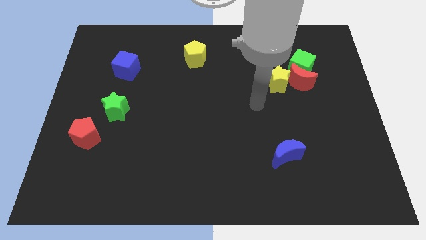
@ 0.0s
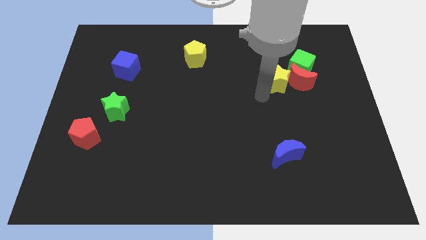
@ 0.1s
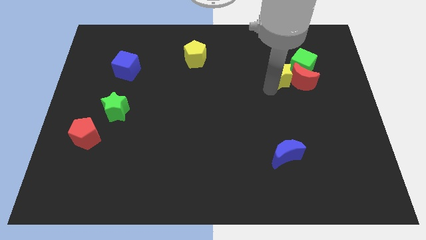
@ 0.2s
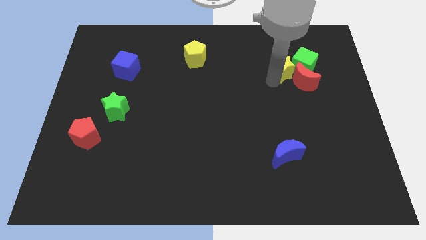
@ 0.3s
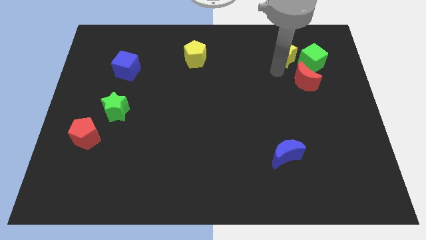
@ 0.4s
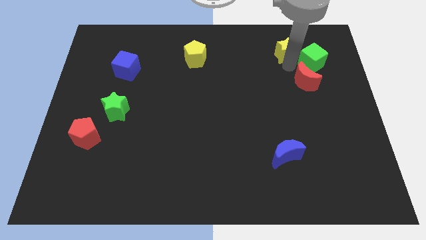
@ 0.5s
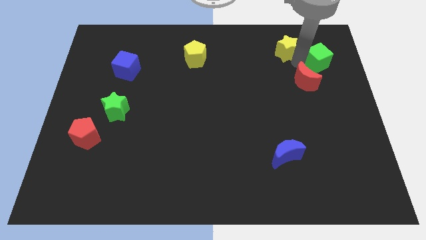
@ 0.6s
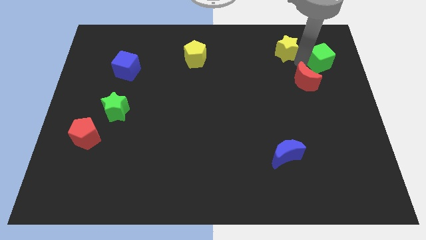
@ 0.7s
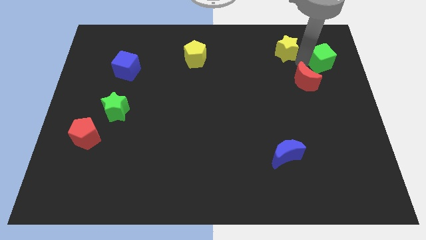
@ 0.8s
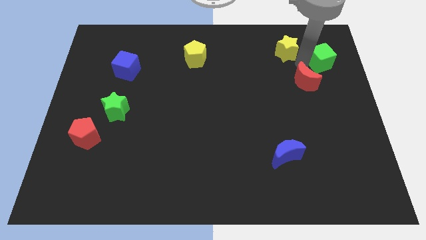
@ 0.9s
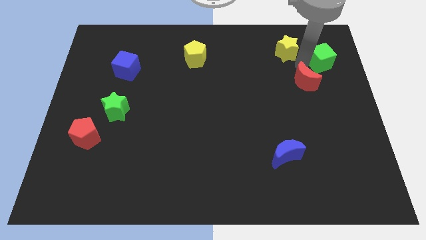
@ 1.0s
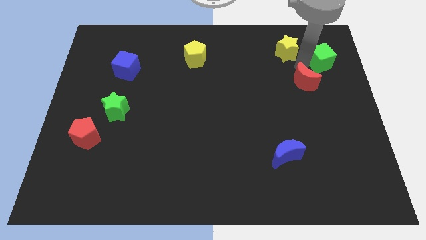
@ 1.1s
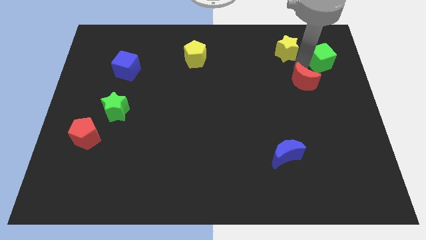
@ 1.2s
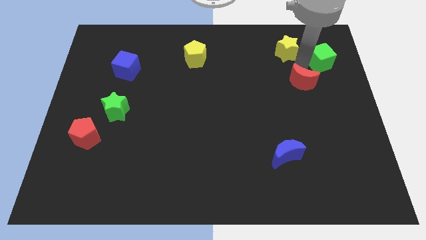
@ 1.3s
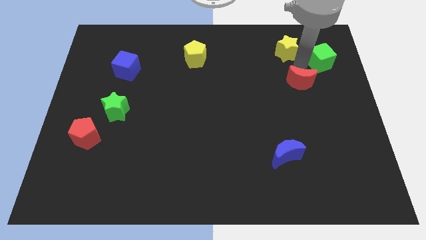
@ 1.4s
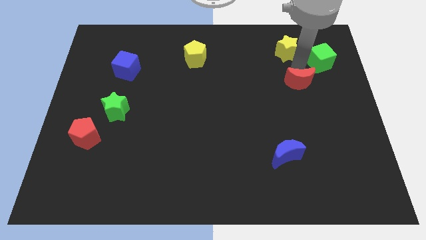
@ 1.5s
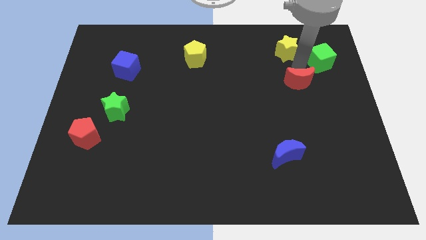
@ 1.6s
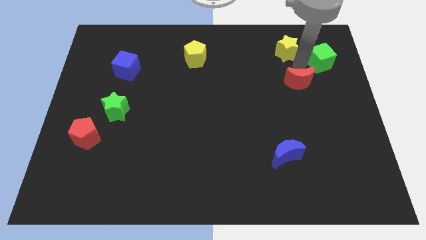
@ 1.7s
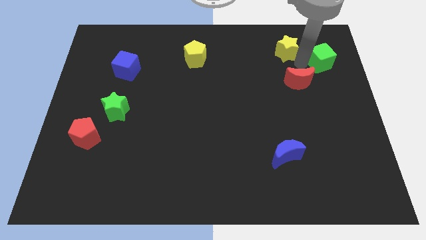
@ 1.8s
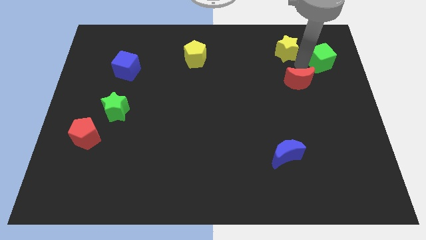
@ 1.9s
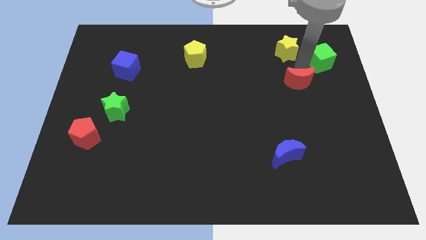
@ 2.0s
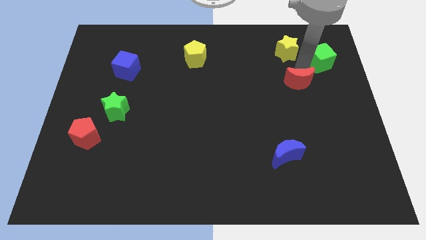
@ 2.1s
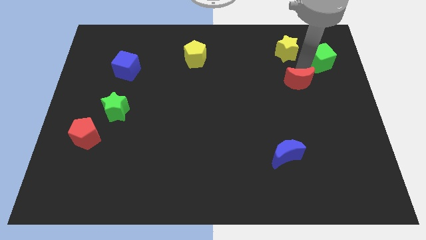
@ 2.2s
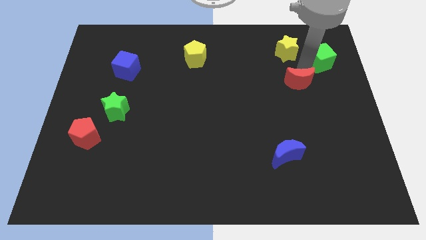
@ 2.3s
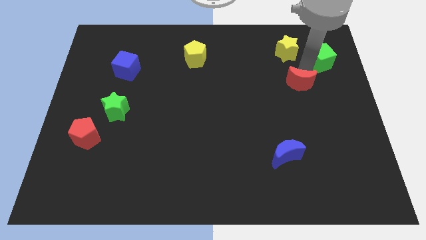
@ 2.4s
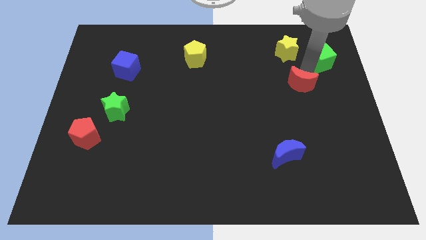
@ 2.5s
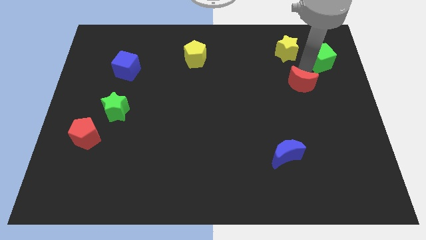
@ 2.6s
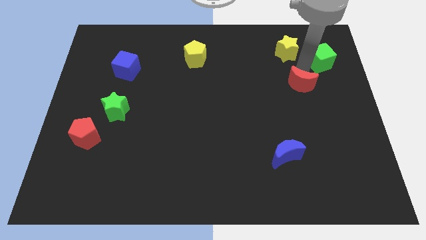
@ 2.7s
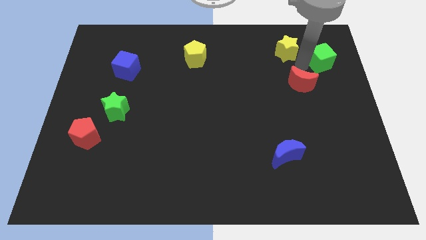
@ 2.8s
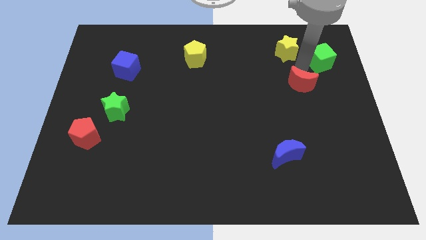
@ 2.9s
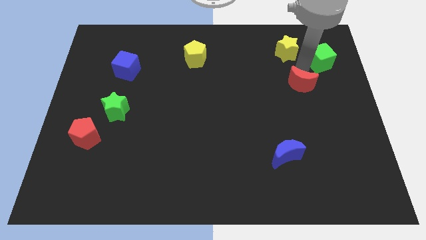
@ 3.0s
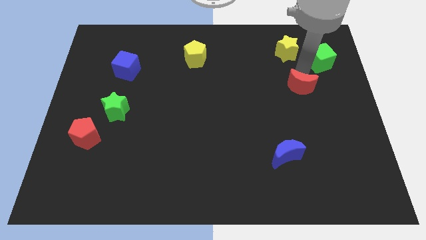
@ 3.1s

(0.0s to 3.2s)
pull the red moon apart from the green cube and yellow star

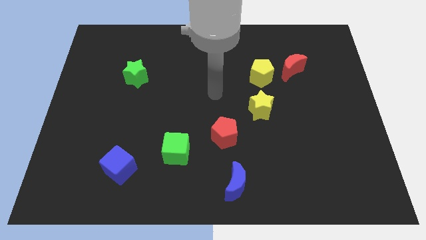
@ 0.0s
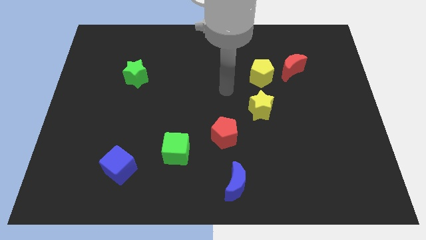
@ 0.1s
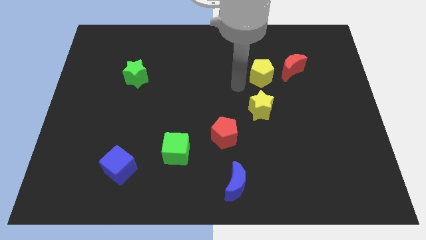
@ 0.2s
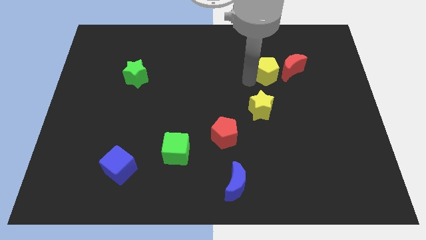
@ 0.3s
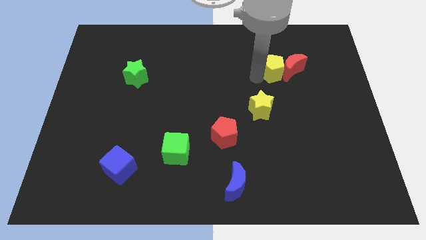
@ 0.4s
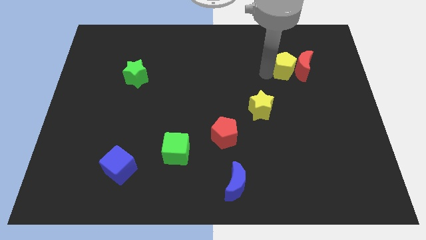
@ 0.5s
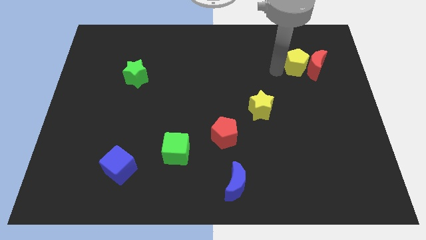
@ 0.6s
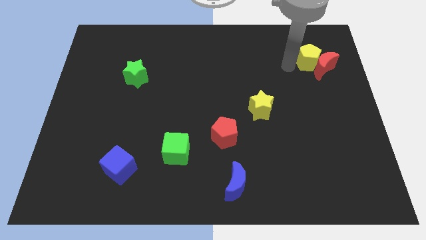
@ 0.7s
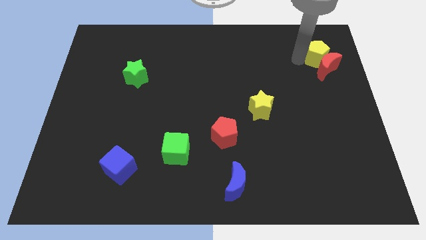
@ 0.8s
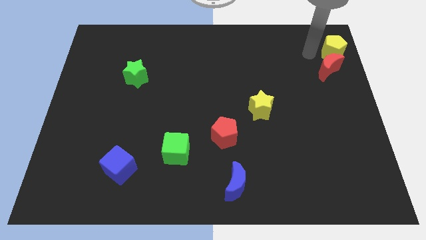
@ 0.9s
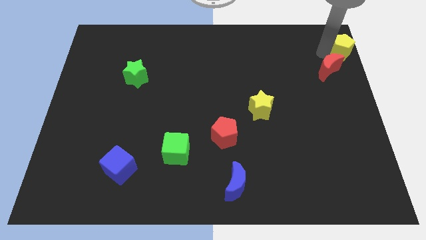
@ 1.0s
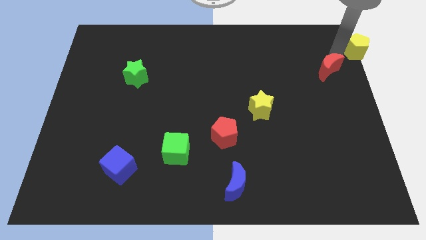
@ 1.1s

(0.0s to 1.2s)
separate the red moon from the yellow pentagon

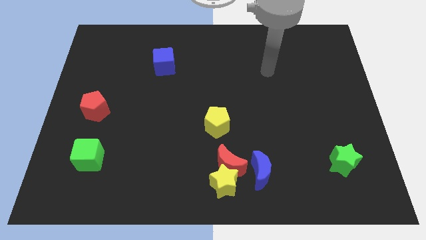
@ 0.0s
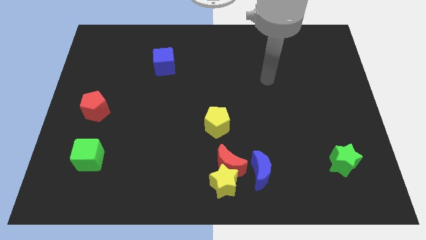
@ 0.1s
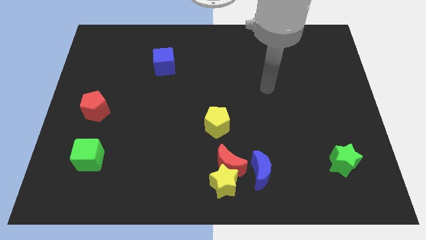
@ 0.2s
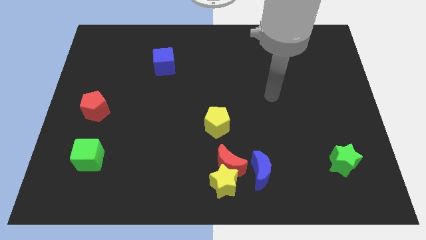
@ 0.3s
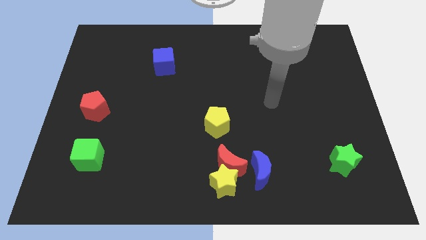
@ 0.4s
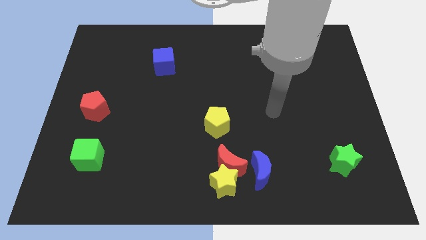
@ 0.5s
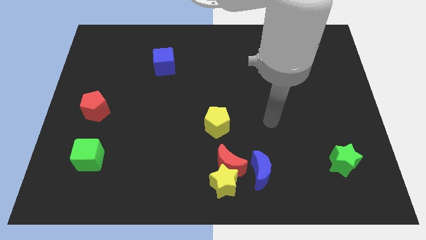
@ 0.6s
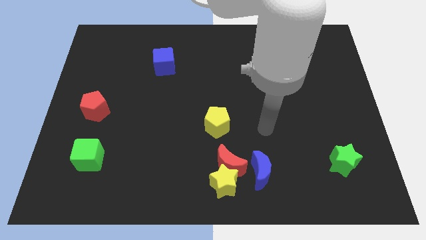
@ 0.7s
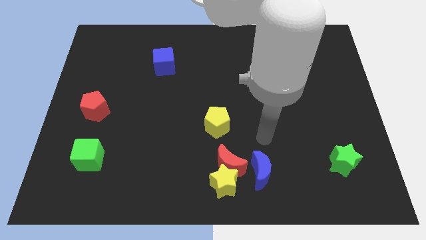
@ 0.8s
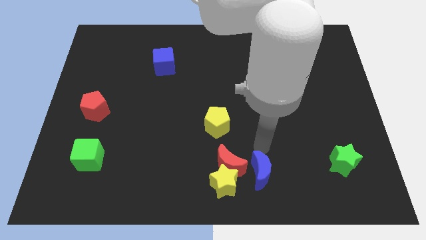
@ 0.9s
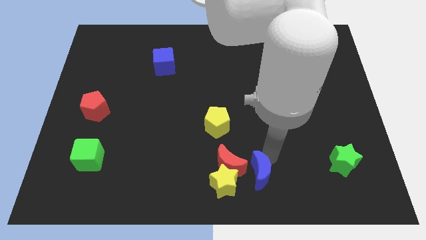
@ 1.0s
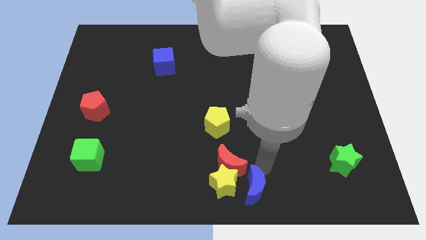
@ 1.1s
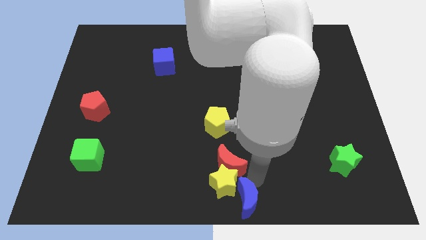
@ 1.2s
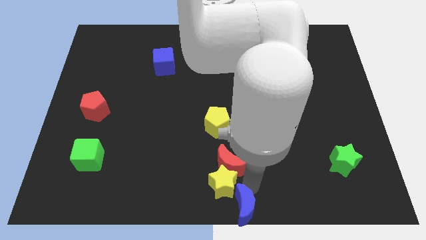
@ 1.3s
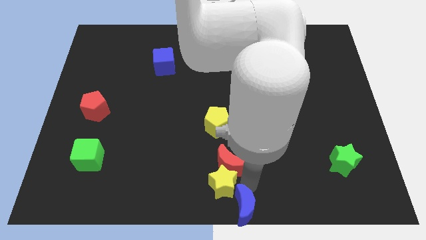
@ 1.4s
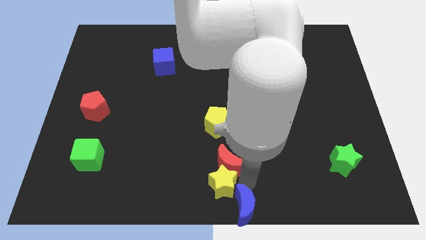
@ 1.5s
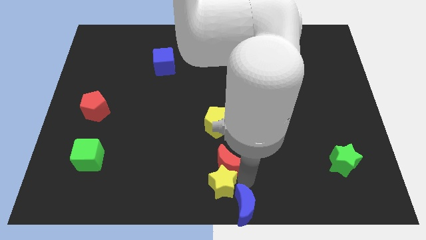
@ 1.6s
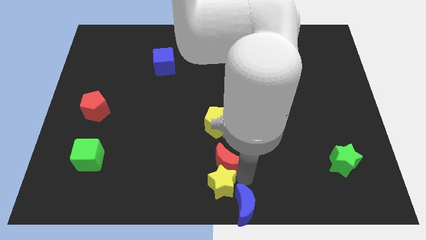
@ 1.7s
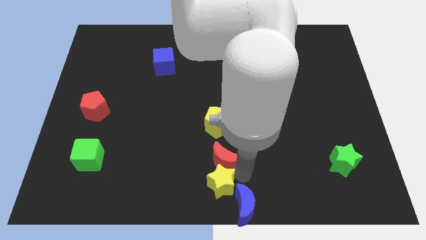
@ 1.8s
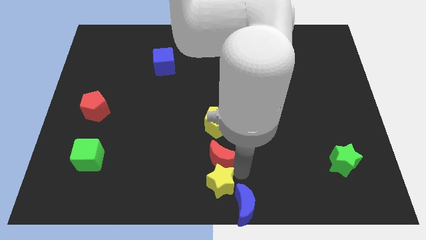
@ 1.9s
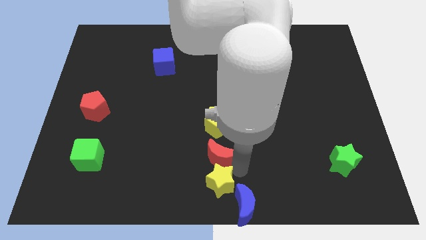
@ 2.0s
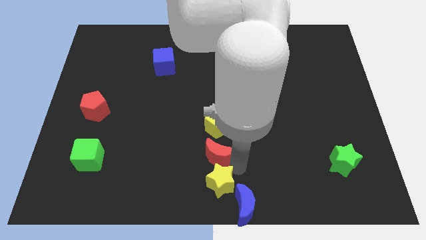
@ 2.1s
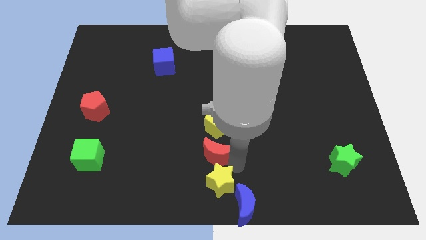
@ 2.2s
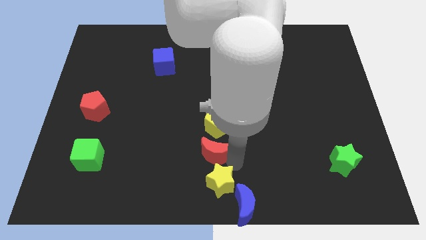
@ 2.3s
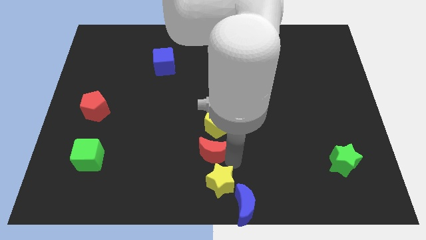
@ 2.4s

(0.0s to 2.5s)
pull the red moon apart from the yellow star and blue moon

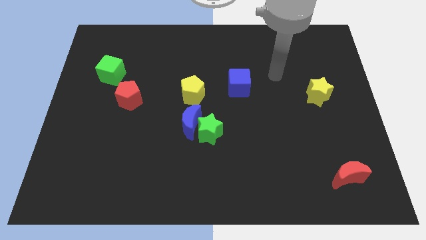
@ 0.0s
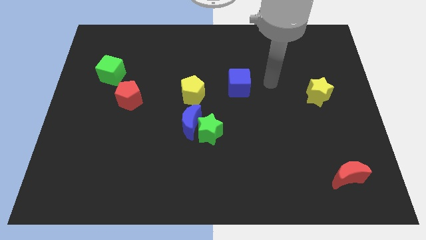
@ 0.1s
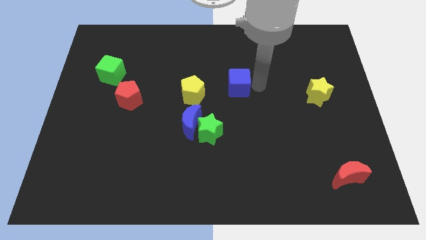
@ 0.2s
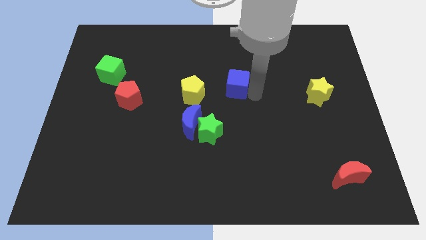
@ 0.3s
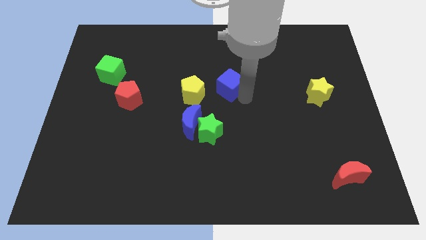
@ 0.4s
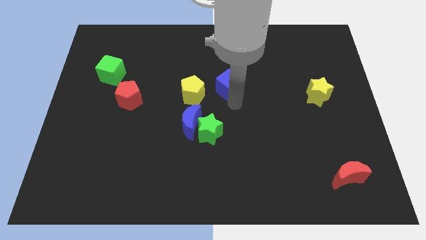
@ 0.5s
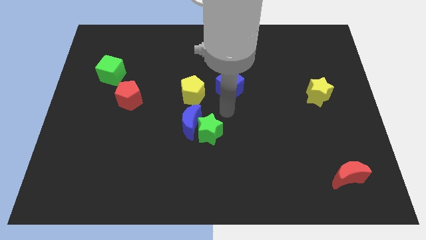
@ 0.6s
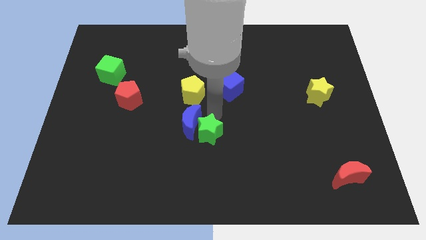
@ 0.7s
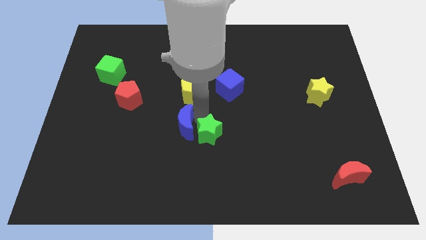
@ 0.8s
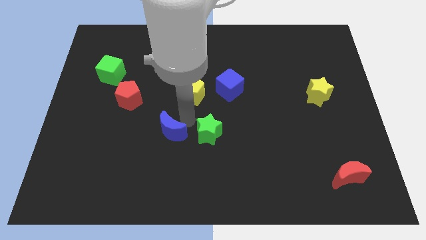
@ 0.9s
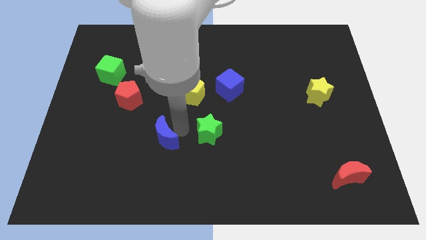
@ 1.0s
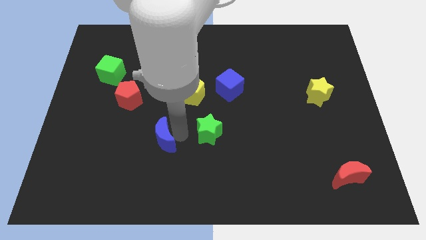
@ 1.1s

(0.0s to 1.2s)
move the green star away from the blue moon

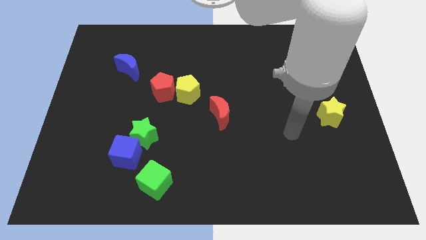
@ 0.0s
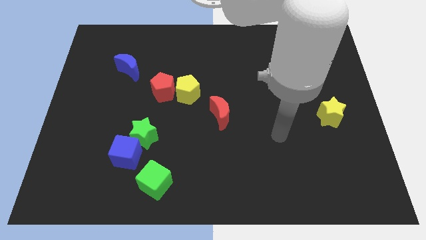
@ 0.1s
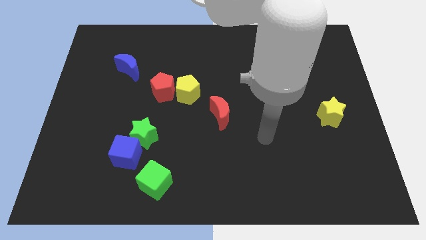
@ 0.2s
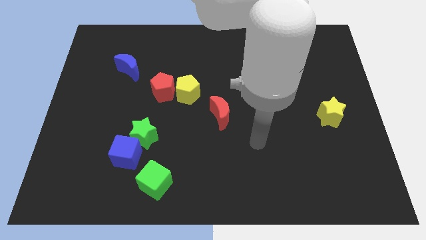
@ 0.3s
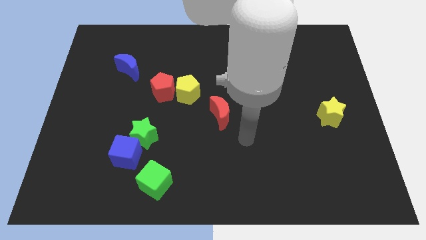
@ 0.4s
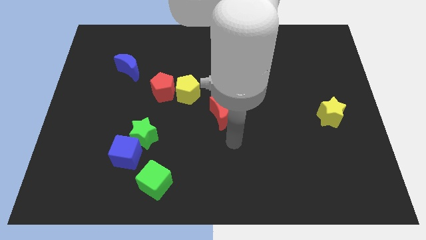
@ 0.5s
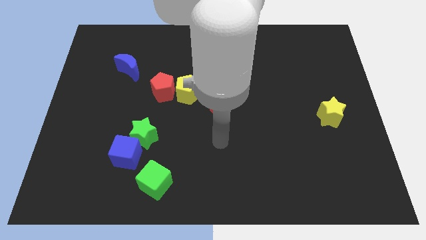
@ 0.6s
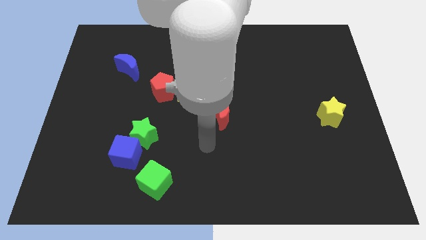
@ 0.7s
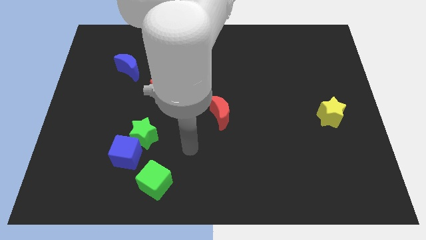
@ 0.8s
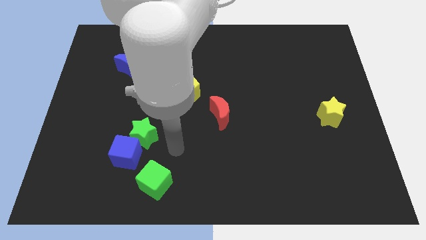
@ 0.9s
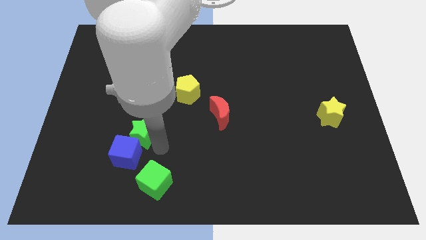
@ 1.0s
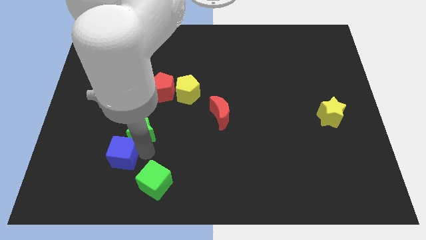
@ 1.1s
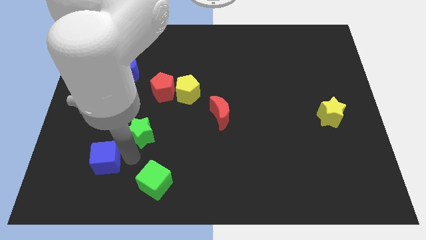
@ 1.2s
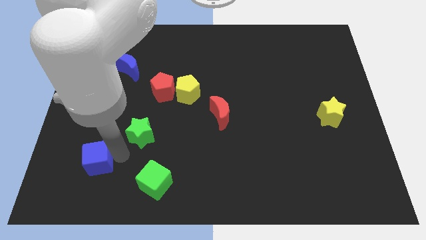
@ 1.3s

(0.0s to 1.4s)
move the green star away from the blue cube
